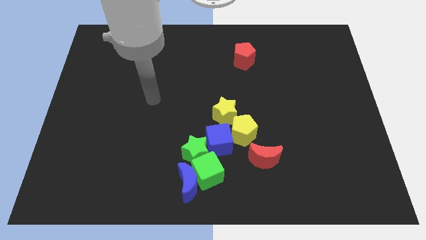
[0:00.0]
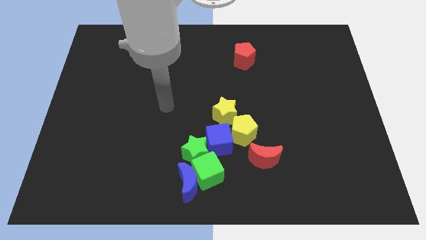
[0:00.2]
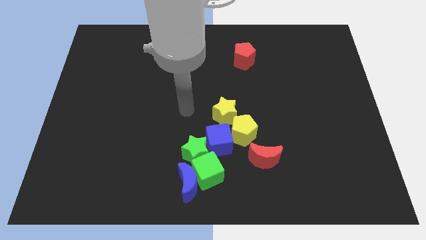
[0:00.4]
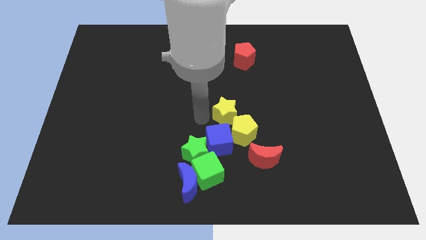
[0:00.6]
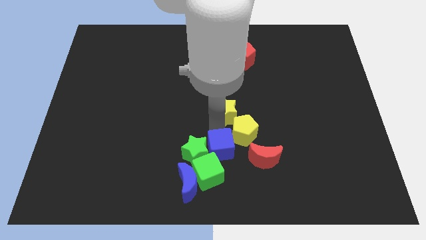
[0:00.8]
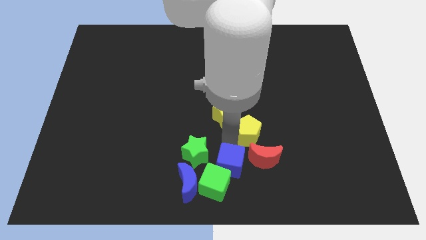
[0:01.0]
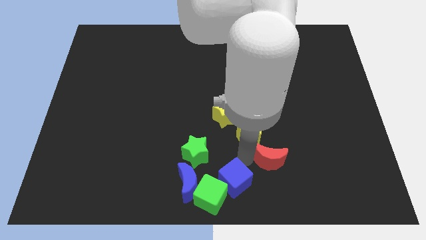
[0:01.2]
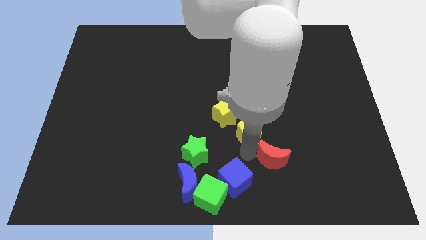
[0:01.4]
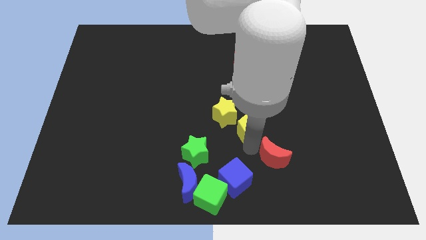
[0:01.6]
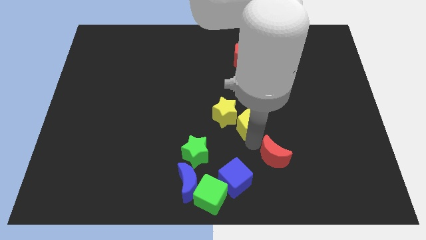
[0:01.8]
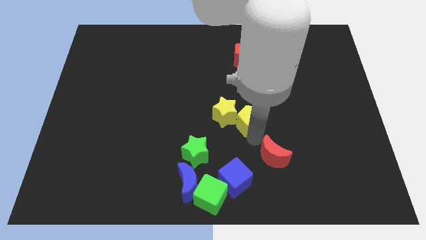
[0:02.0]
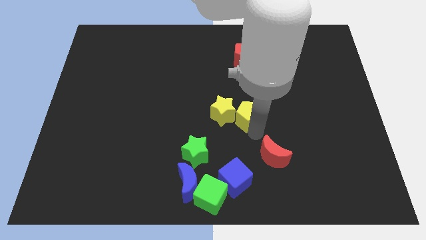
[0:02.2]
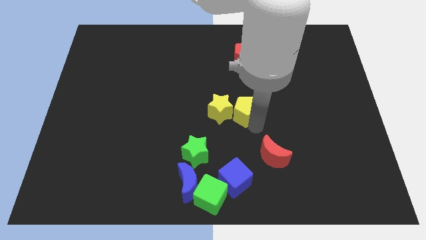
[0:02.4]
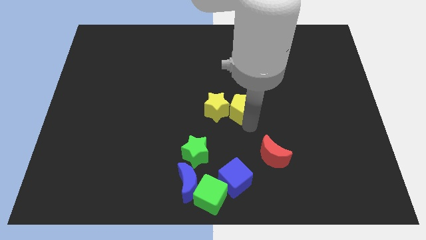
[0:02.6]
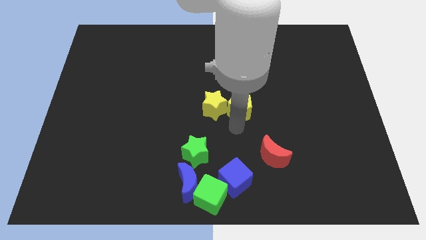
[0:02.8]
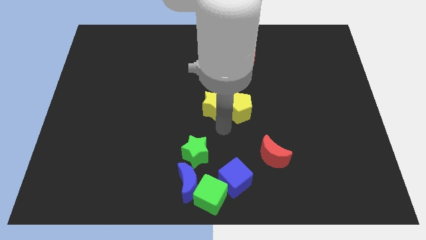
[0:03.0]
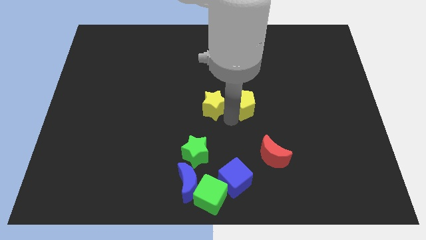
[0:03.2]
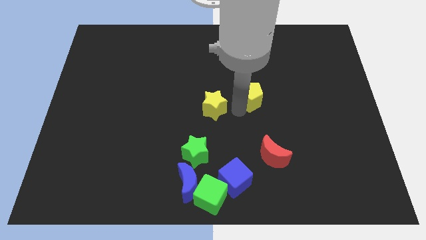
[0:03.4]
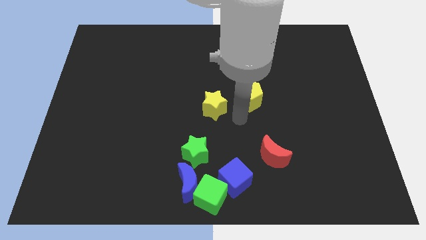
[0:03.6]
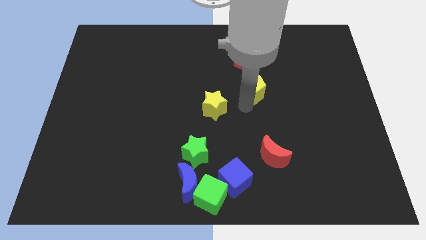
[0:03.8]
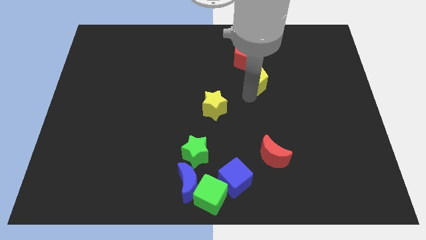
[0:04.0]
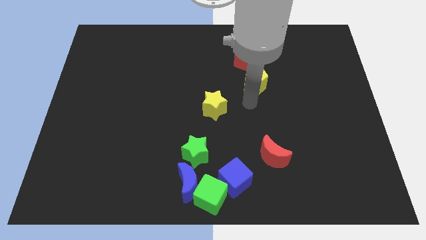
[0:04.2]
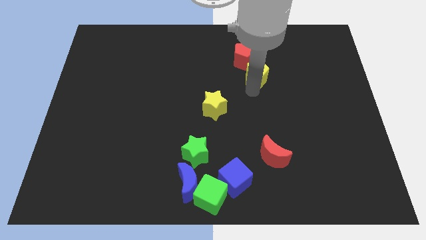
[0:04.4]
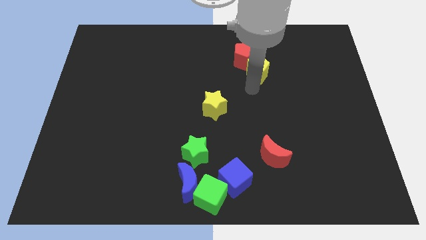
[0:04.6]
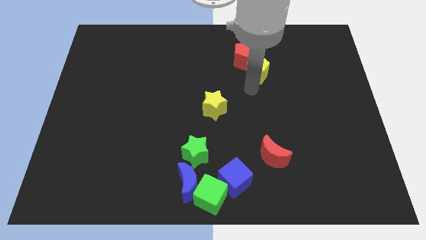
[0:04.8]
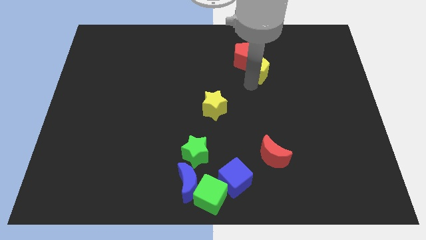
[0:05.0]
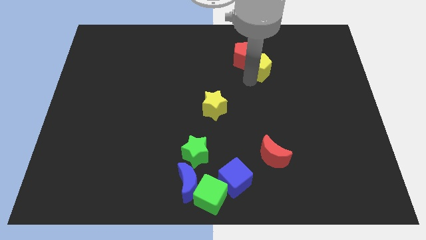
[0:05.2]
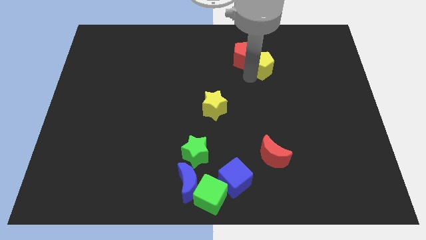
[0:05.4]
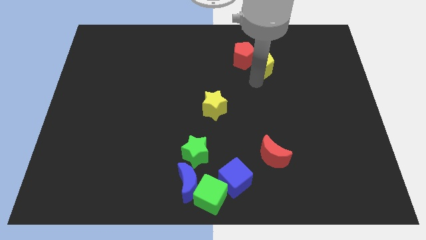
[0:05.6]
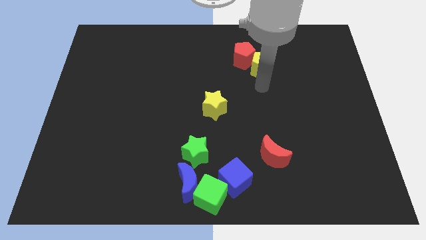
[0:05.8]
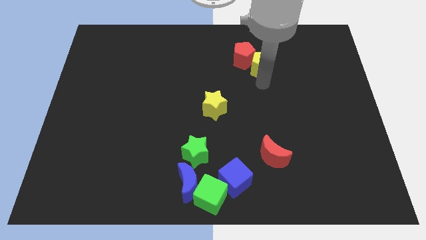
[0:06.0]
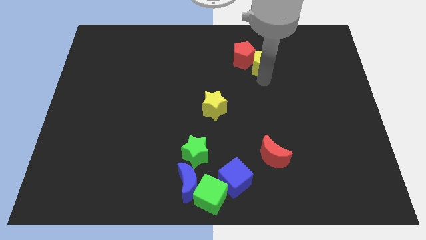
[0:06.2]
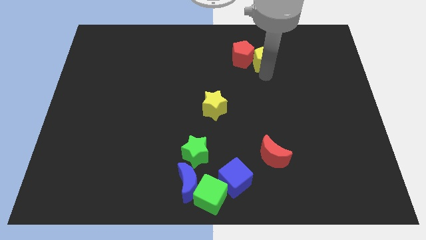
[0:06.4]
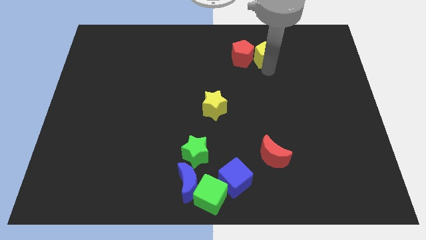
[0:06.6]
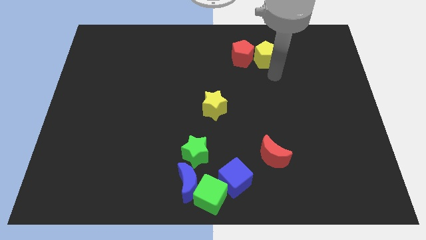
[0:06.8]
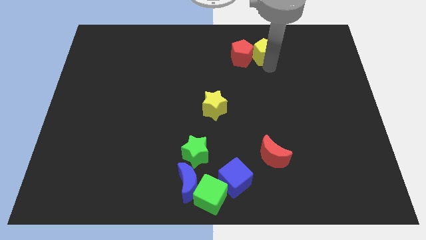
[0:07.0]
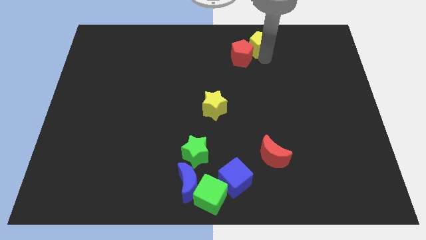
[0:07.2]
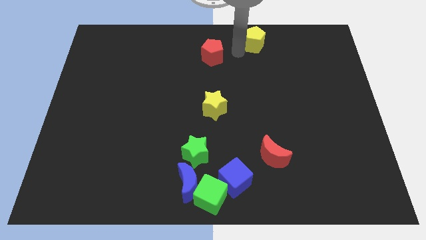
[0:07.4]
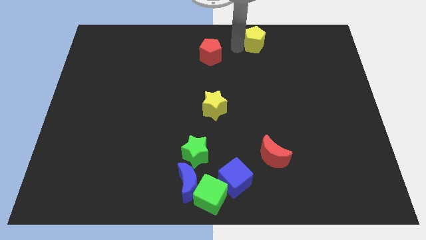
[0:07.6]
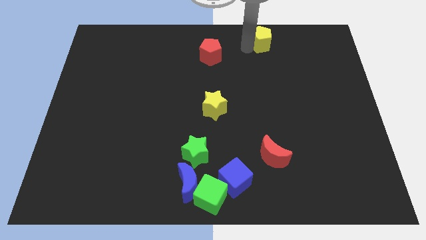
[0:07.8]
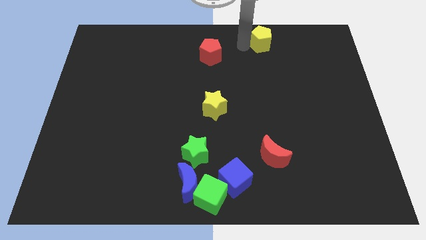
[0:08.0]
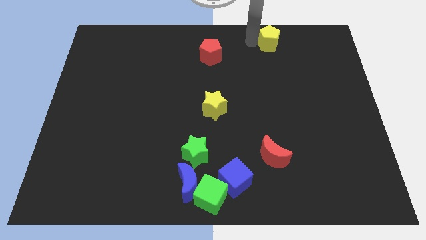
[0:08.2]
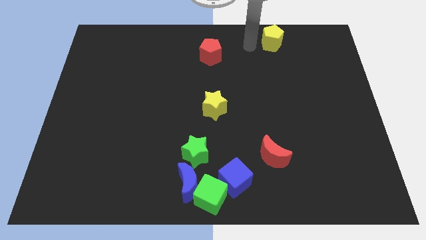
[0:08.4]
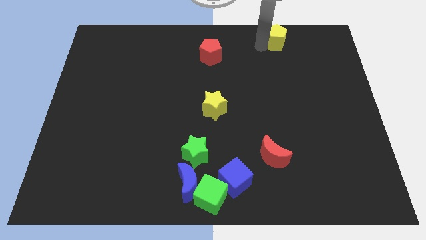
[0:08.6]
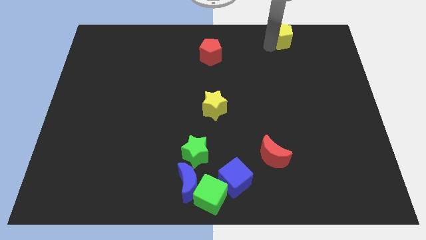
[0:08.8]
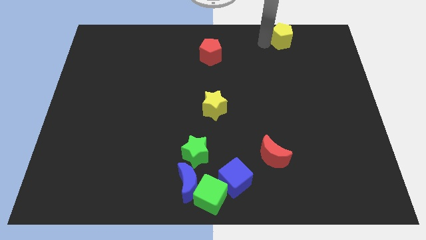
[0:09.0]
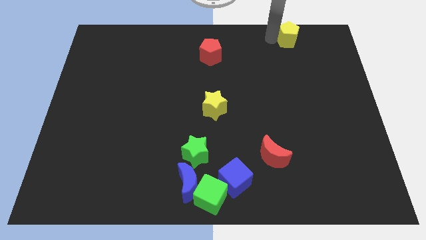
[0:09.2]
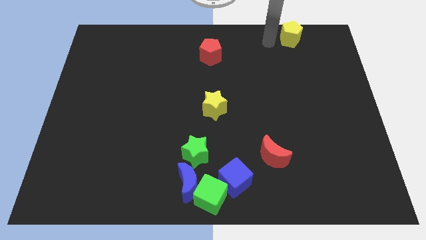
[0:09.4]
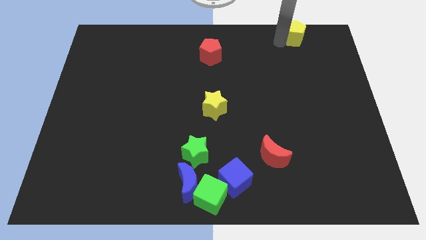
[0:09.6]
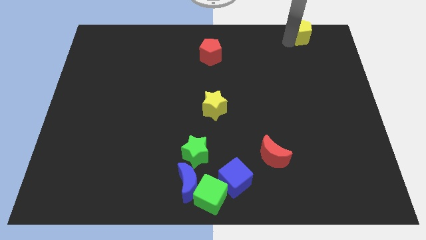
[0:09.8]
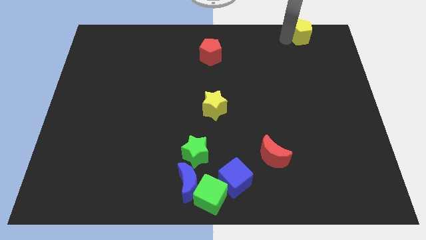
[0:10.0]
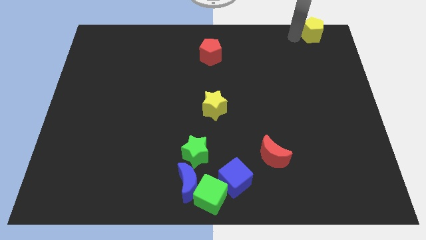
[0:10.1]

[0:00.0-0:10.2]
put the yellow pentagon to the top right corner
